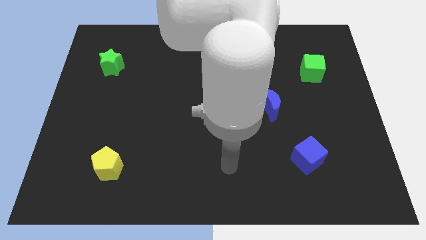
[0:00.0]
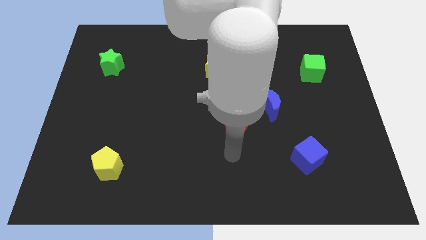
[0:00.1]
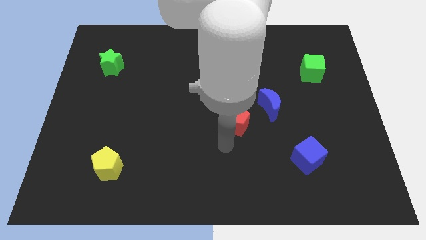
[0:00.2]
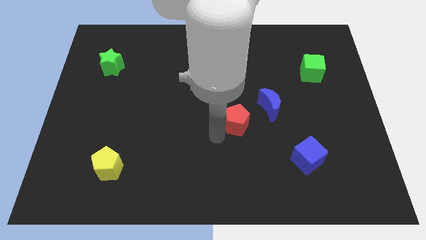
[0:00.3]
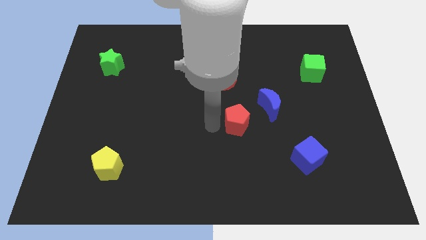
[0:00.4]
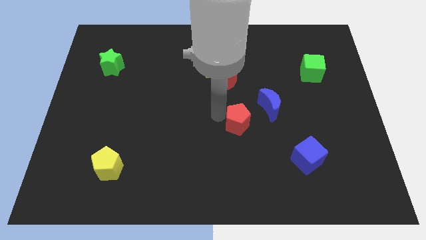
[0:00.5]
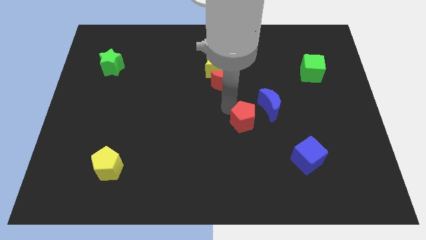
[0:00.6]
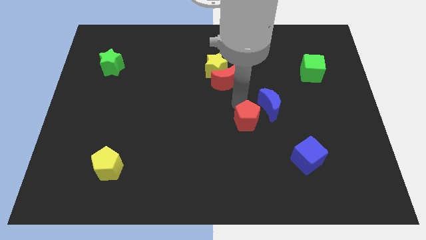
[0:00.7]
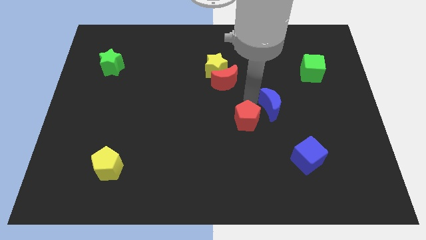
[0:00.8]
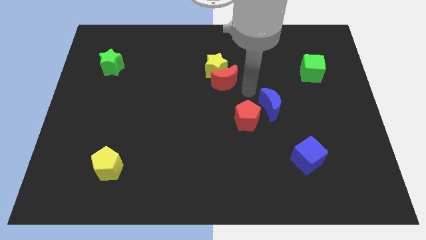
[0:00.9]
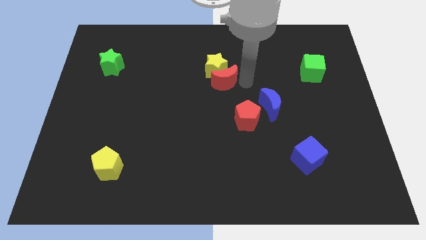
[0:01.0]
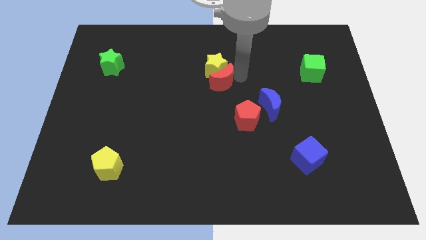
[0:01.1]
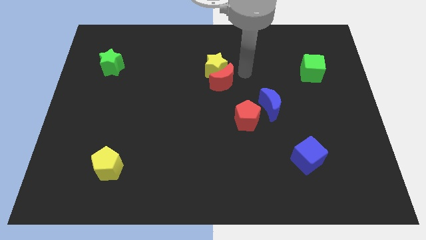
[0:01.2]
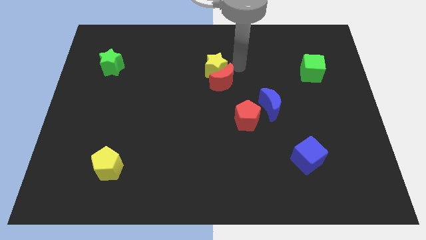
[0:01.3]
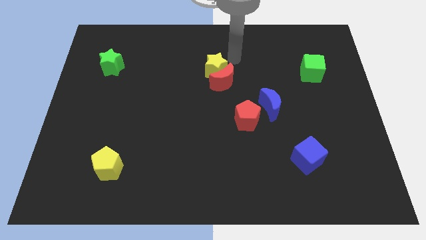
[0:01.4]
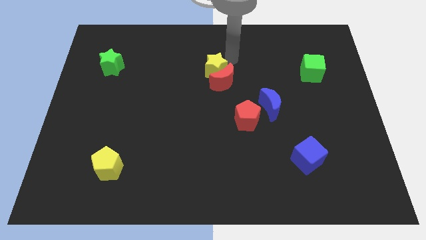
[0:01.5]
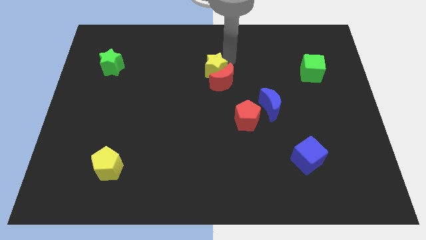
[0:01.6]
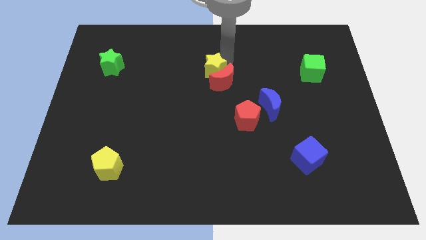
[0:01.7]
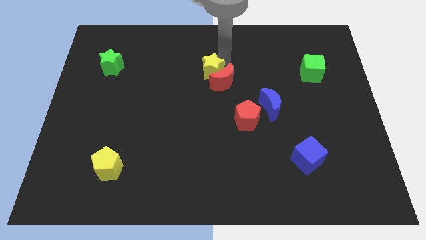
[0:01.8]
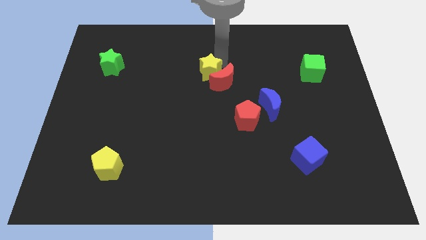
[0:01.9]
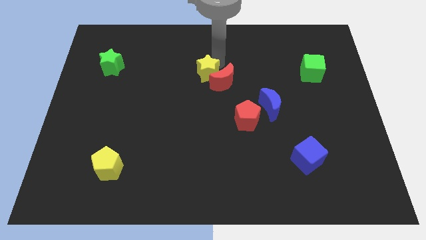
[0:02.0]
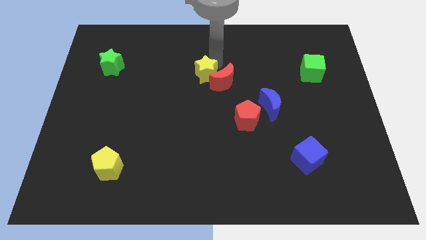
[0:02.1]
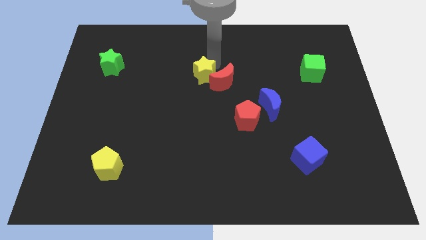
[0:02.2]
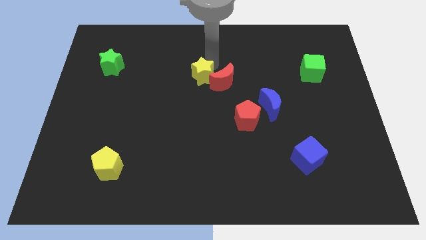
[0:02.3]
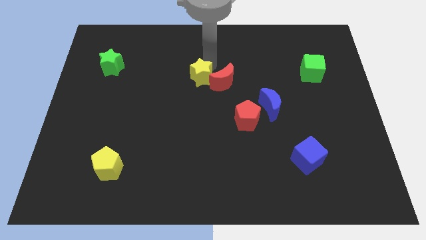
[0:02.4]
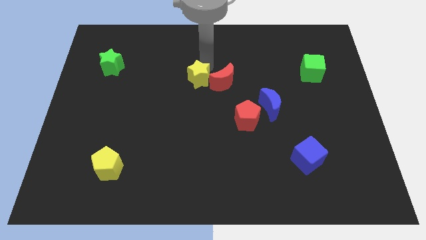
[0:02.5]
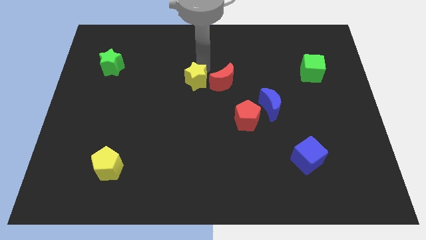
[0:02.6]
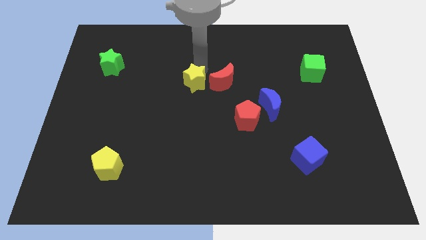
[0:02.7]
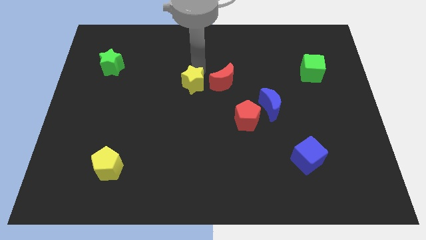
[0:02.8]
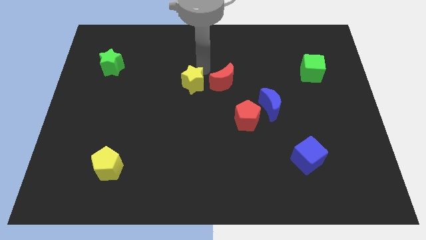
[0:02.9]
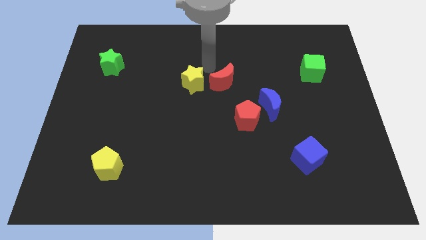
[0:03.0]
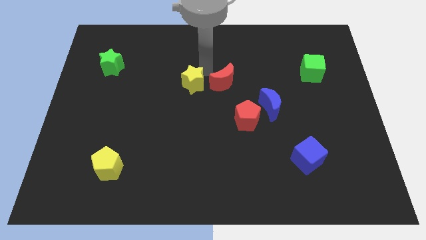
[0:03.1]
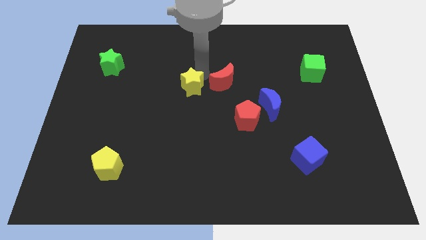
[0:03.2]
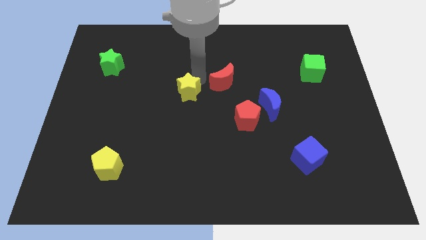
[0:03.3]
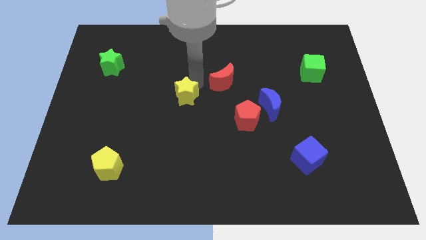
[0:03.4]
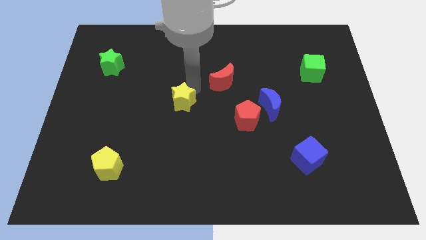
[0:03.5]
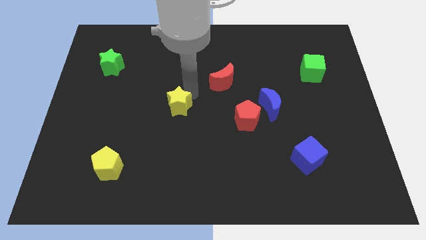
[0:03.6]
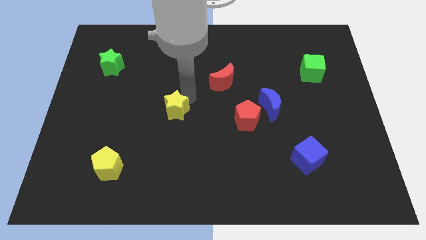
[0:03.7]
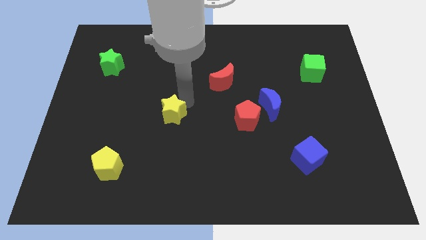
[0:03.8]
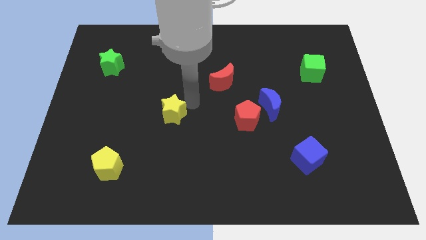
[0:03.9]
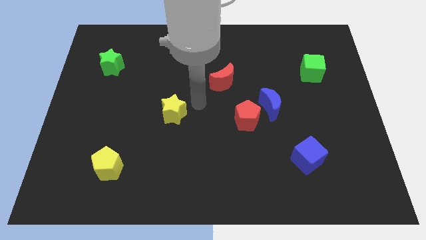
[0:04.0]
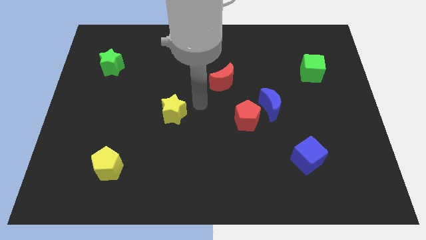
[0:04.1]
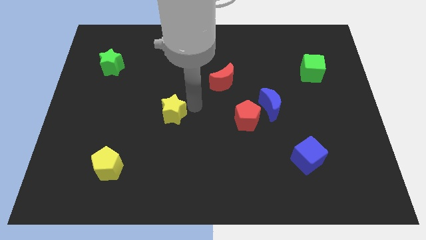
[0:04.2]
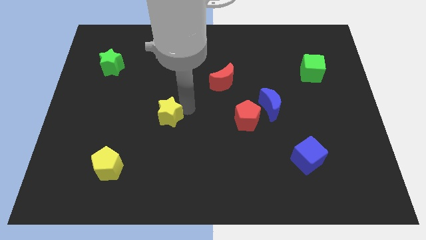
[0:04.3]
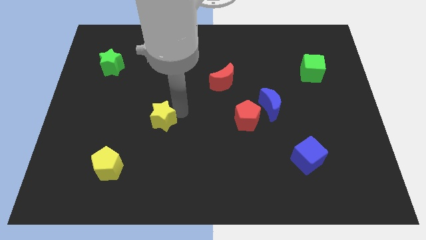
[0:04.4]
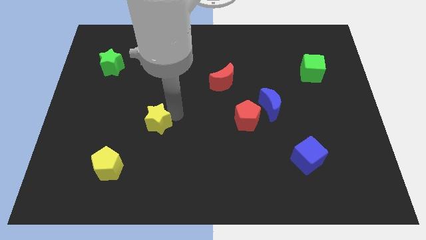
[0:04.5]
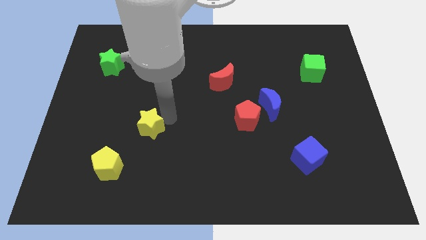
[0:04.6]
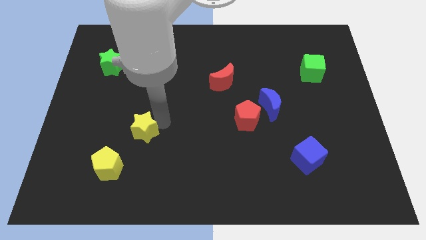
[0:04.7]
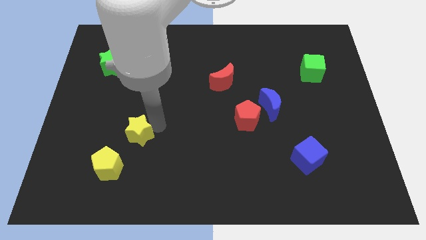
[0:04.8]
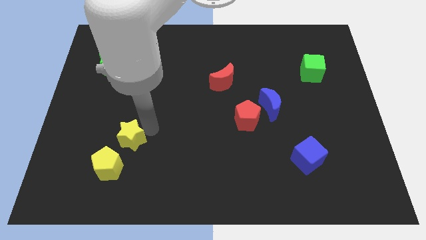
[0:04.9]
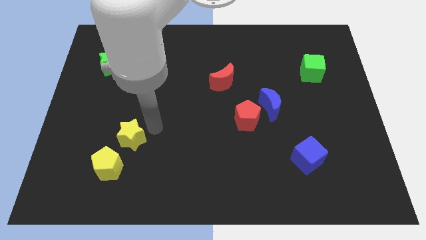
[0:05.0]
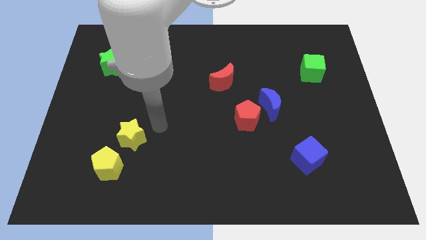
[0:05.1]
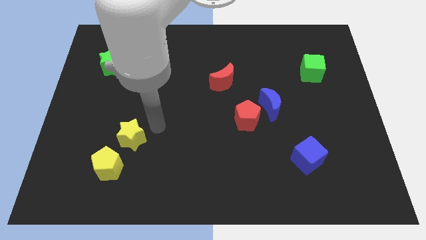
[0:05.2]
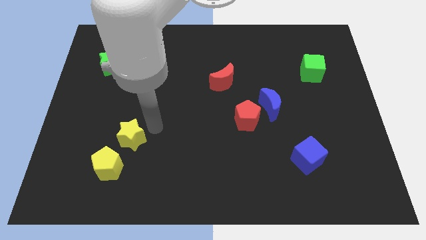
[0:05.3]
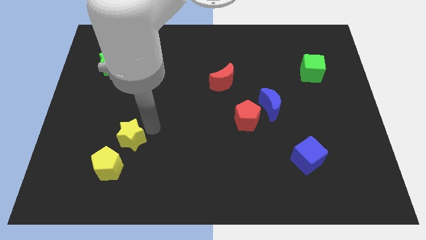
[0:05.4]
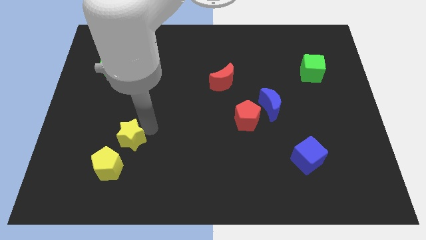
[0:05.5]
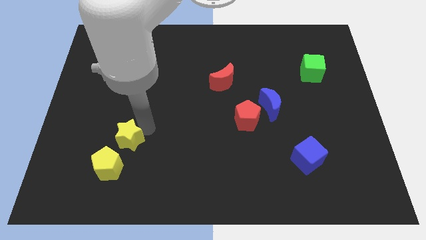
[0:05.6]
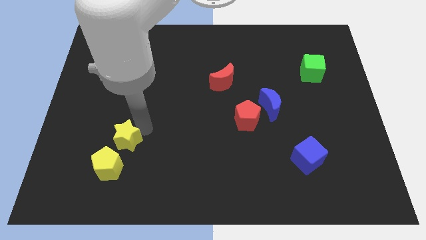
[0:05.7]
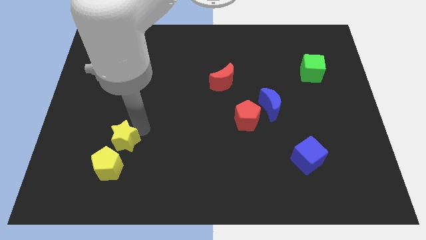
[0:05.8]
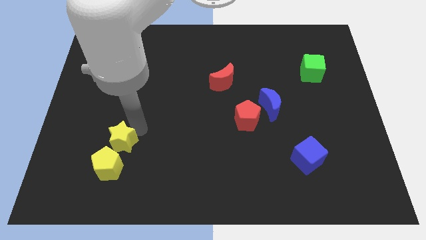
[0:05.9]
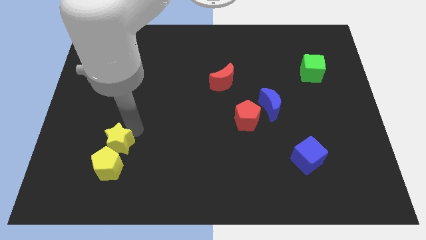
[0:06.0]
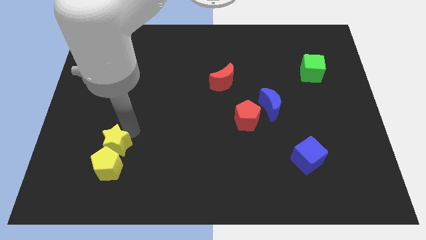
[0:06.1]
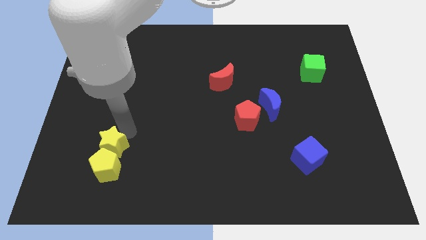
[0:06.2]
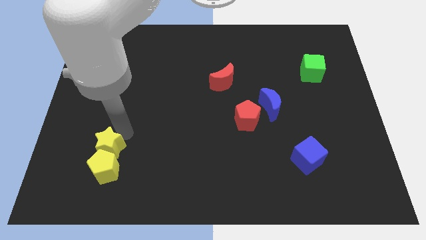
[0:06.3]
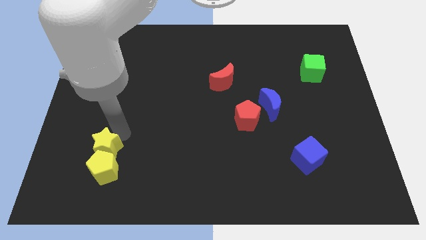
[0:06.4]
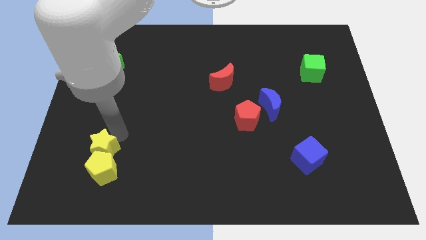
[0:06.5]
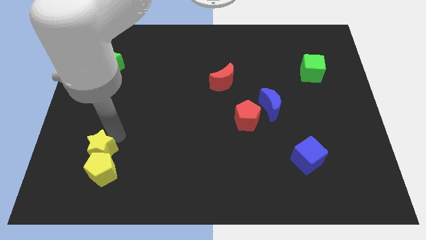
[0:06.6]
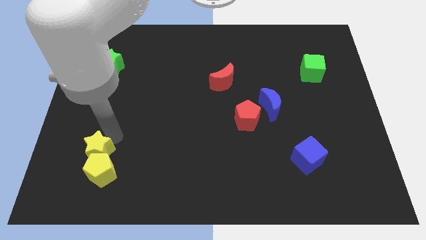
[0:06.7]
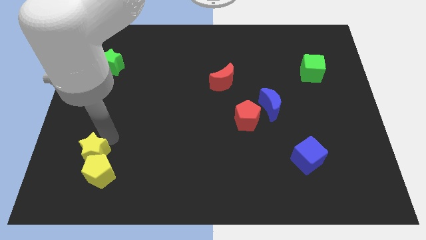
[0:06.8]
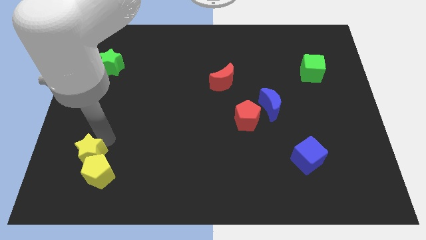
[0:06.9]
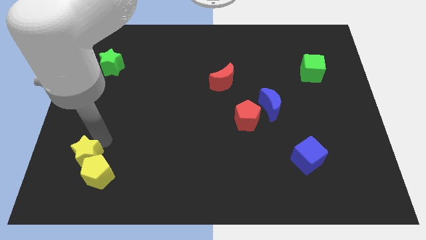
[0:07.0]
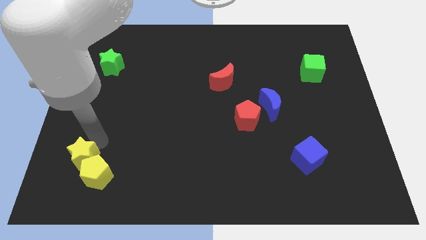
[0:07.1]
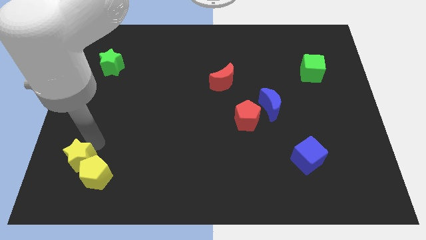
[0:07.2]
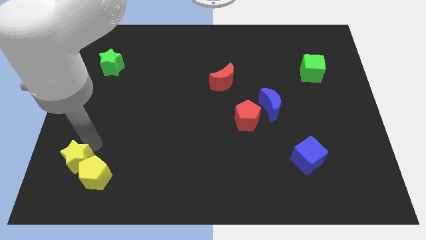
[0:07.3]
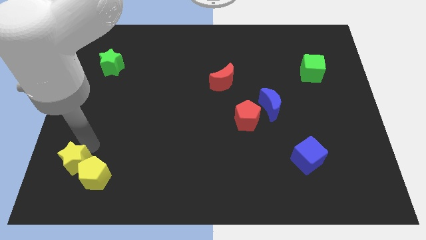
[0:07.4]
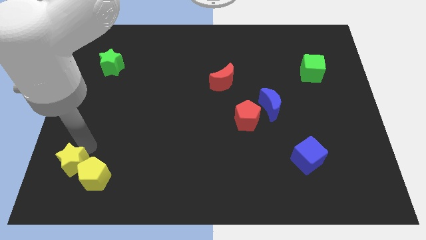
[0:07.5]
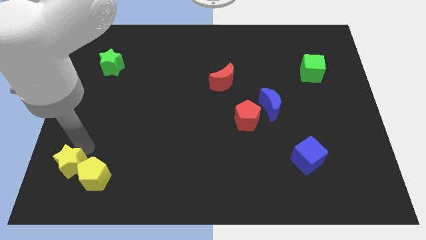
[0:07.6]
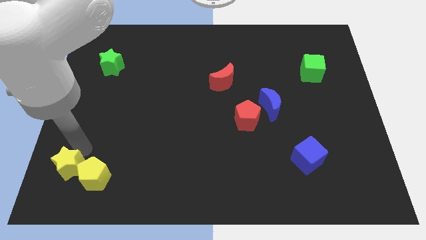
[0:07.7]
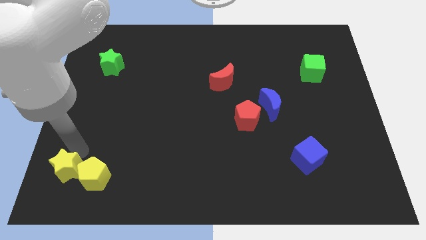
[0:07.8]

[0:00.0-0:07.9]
push the yellow star to the bottom left
